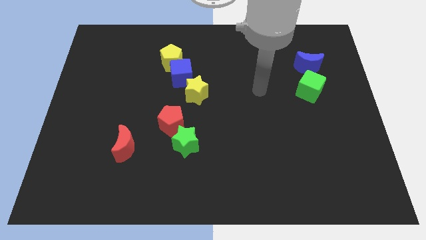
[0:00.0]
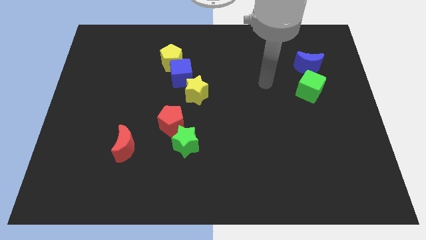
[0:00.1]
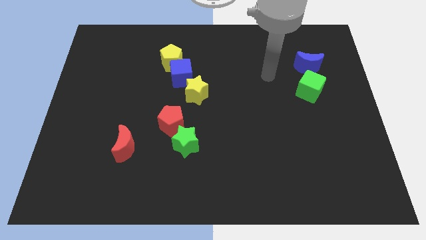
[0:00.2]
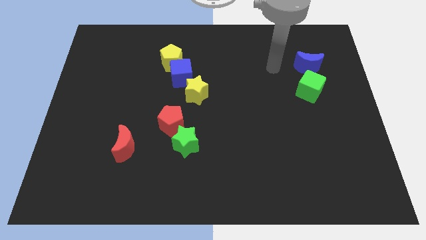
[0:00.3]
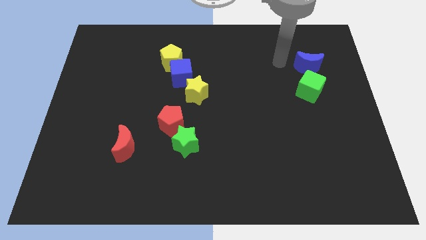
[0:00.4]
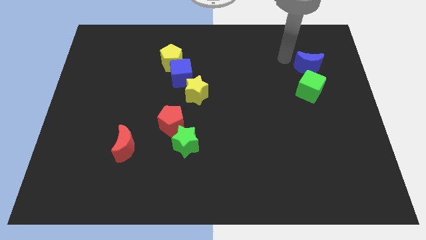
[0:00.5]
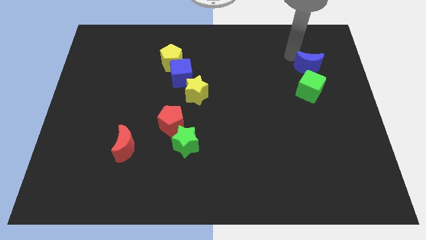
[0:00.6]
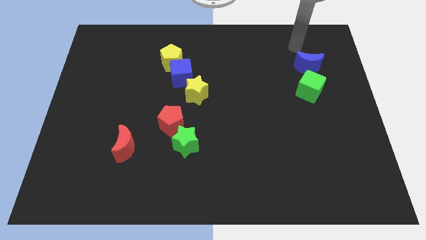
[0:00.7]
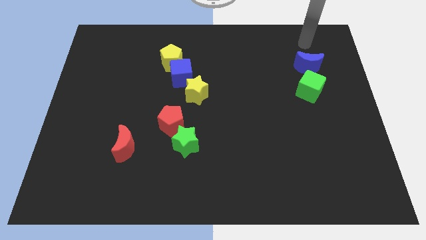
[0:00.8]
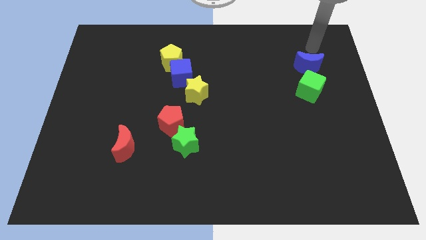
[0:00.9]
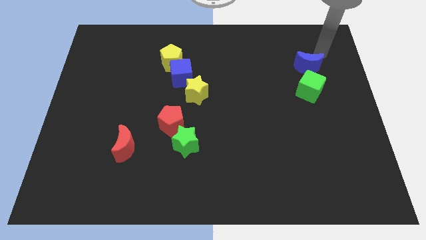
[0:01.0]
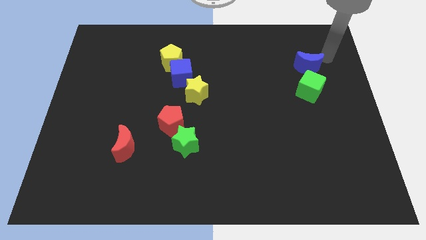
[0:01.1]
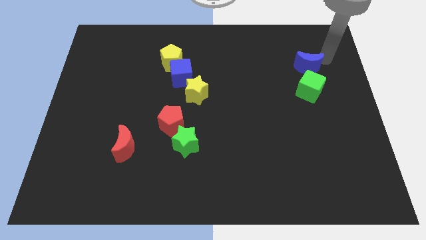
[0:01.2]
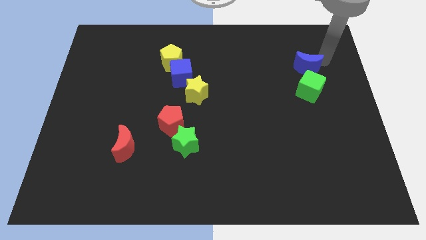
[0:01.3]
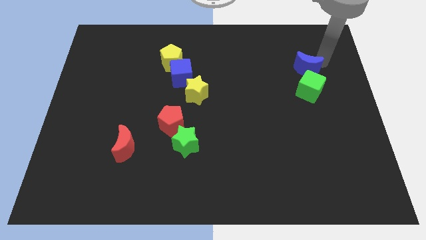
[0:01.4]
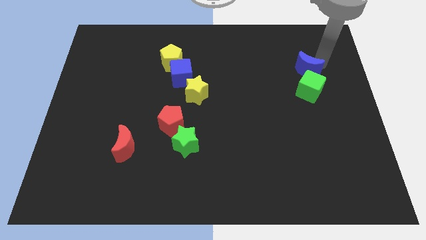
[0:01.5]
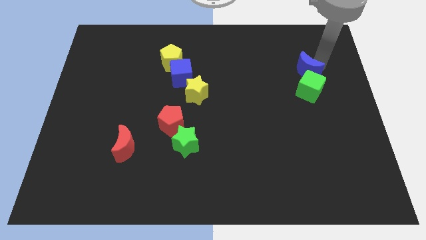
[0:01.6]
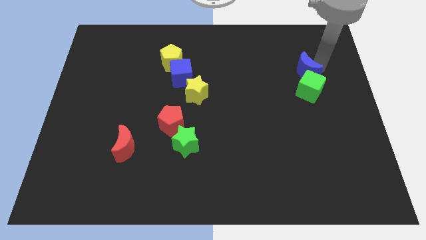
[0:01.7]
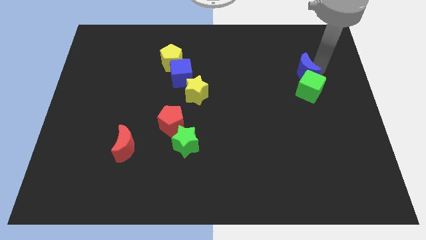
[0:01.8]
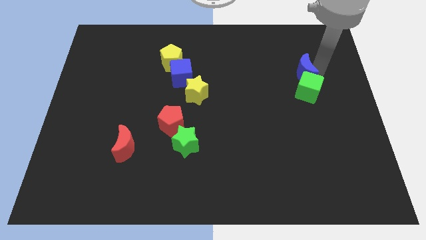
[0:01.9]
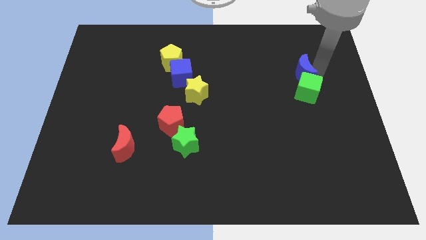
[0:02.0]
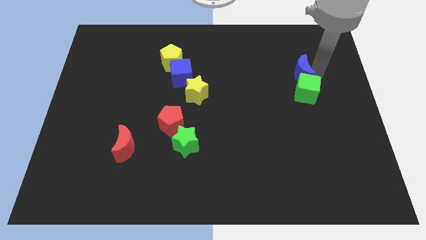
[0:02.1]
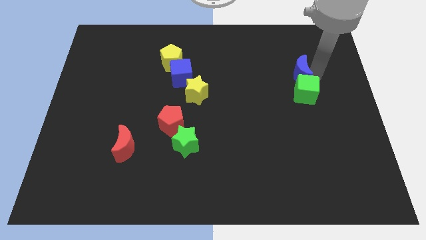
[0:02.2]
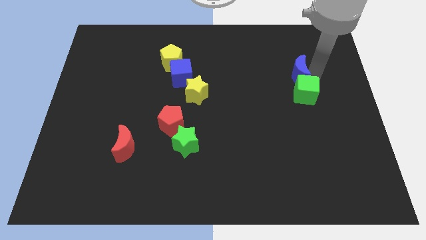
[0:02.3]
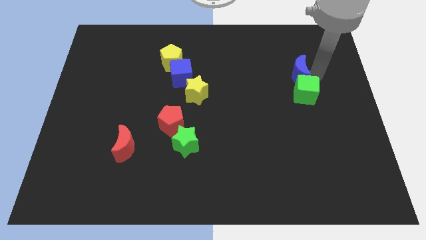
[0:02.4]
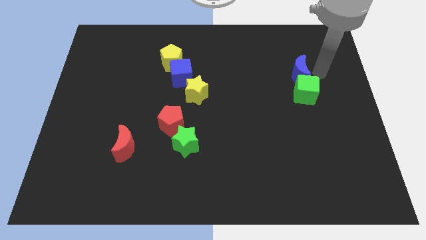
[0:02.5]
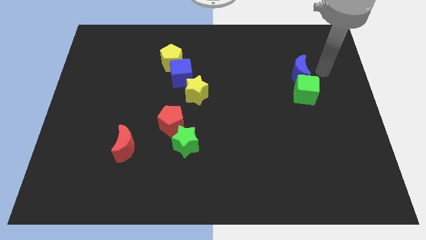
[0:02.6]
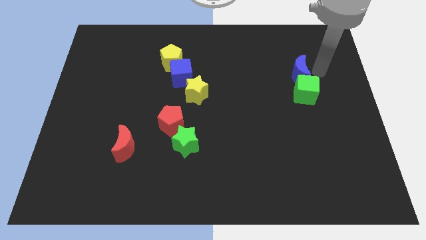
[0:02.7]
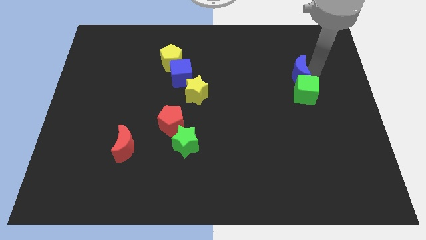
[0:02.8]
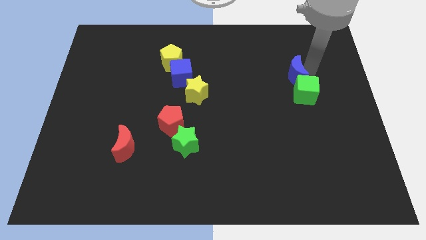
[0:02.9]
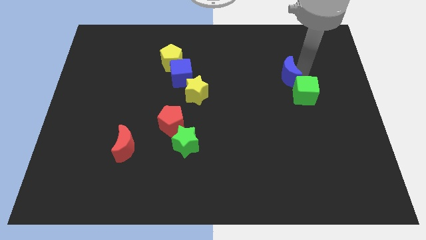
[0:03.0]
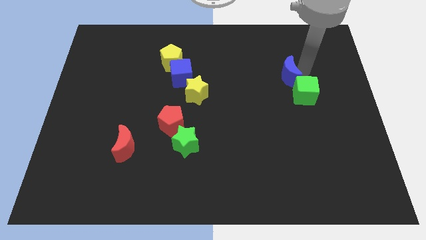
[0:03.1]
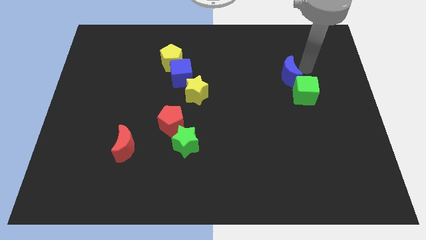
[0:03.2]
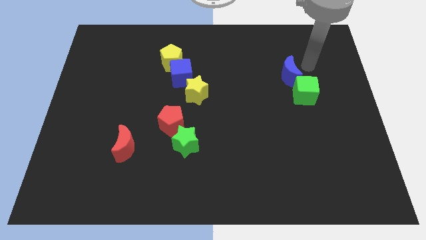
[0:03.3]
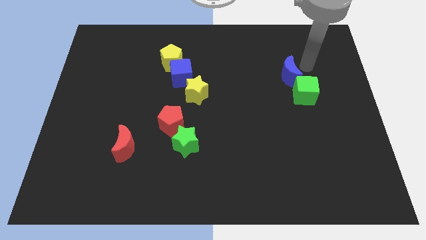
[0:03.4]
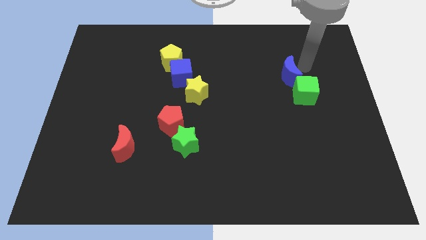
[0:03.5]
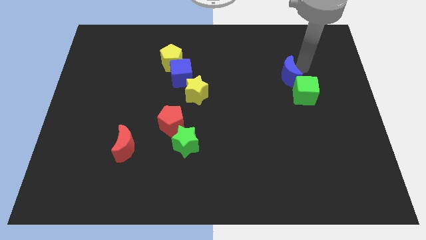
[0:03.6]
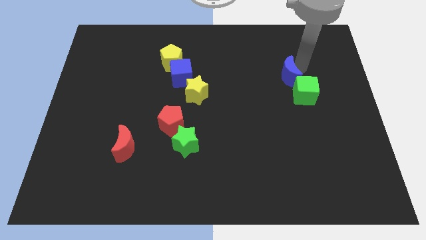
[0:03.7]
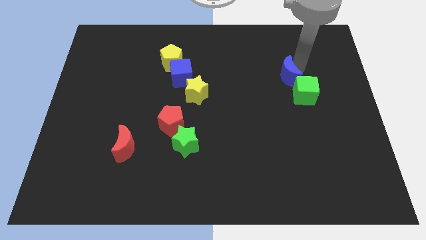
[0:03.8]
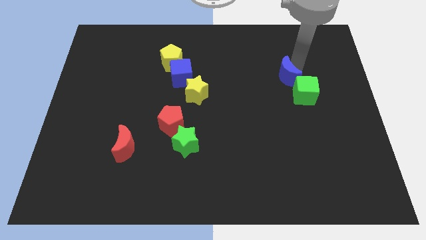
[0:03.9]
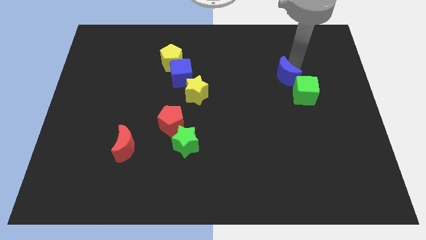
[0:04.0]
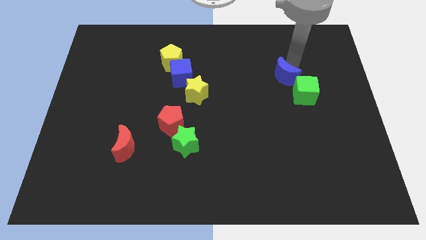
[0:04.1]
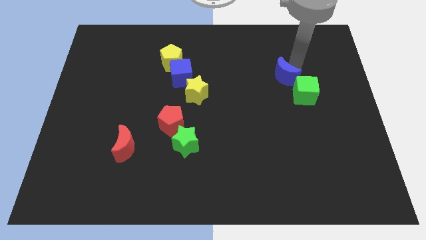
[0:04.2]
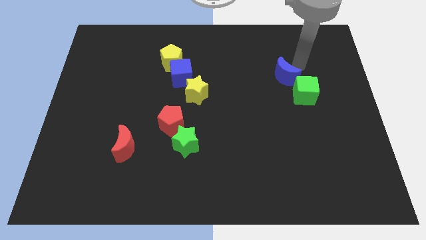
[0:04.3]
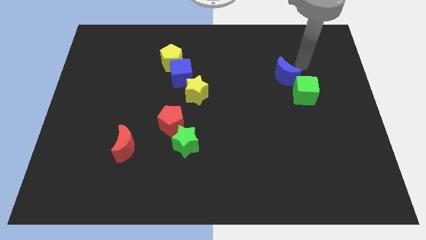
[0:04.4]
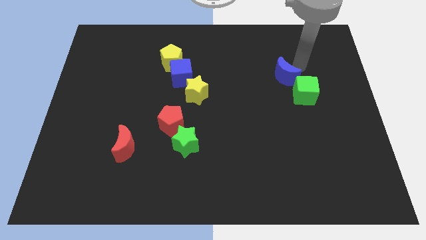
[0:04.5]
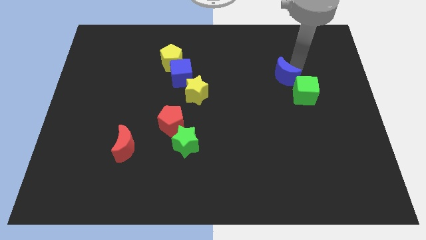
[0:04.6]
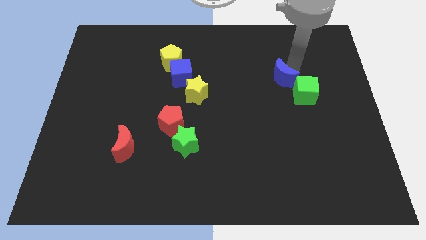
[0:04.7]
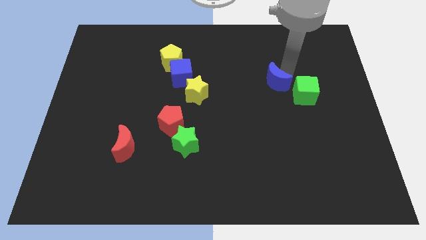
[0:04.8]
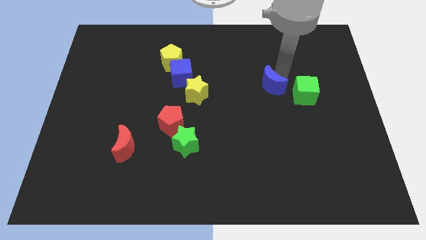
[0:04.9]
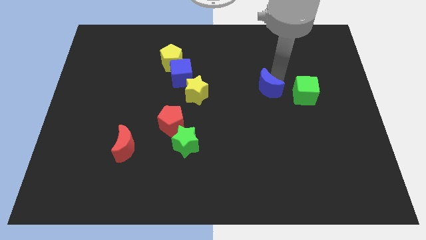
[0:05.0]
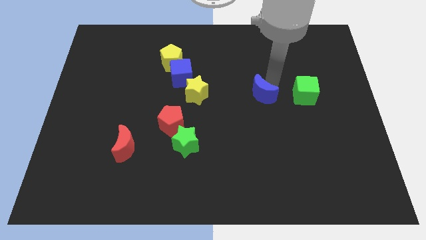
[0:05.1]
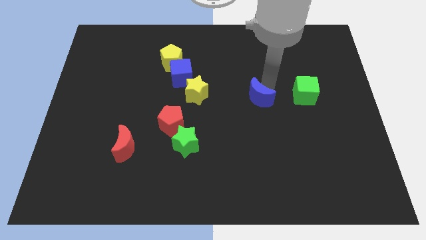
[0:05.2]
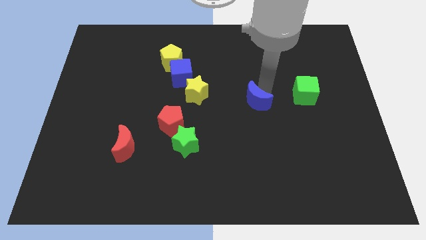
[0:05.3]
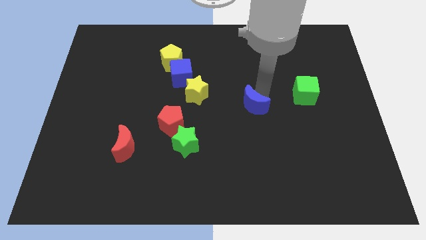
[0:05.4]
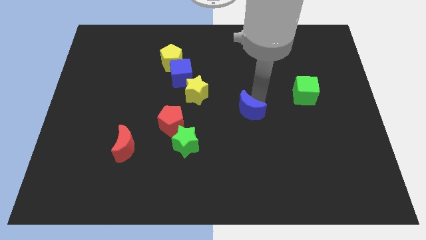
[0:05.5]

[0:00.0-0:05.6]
push the blue moon downwards and to the left

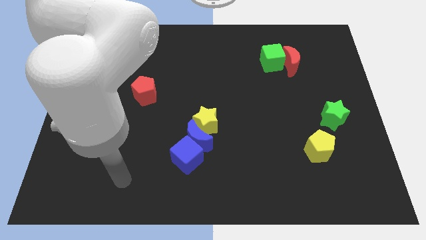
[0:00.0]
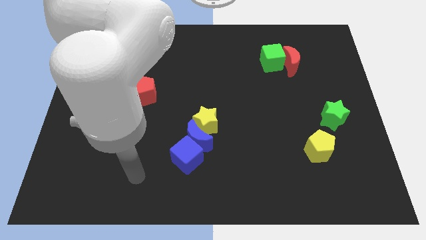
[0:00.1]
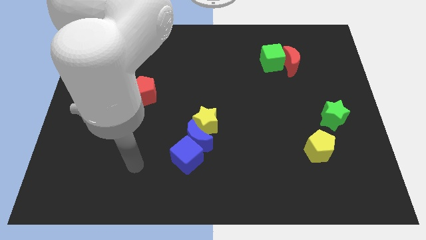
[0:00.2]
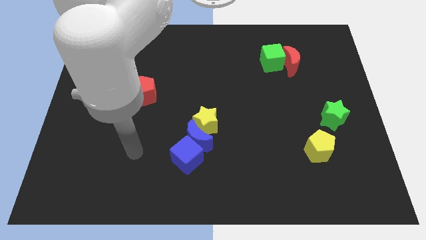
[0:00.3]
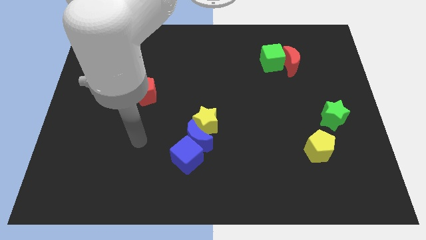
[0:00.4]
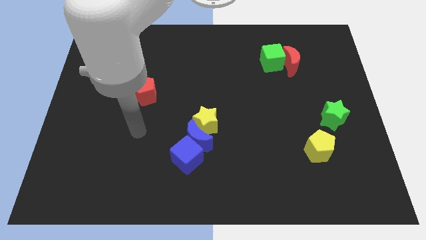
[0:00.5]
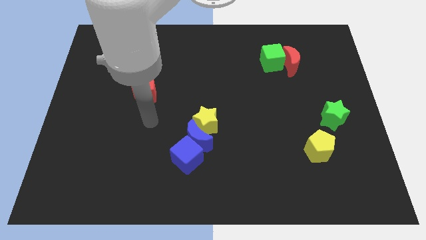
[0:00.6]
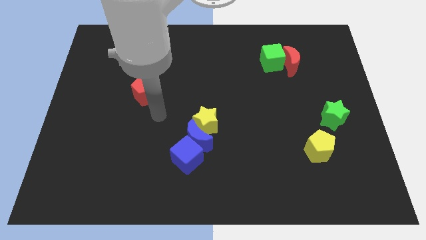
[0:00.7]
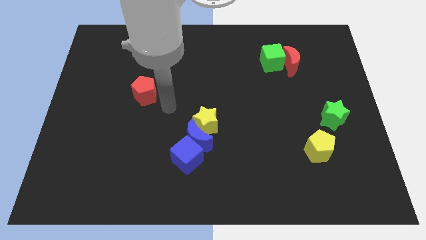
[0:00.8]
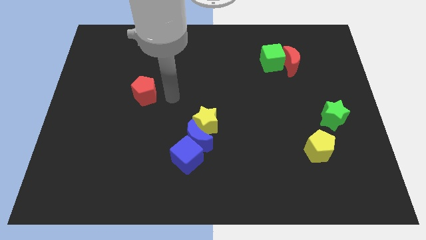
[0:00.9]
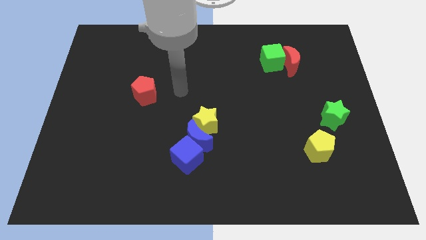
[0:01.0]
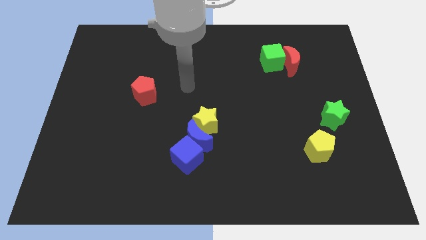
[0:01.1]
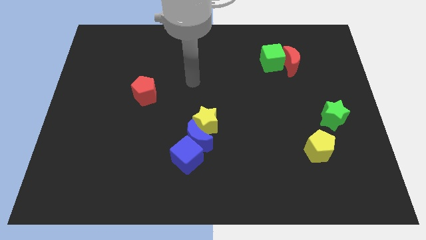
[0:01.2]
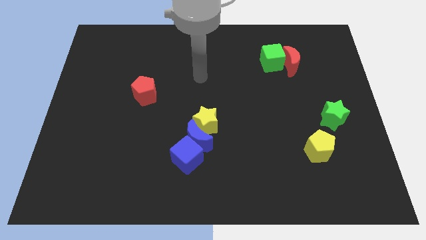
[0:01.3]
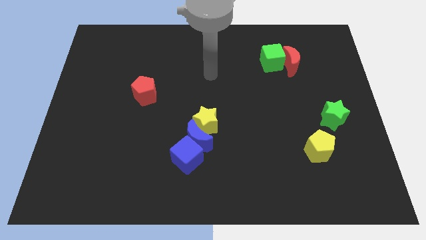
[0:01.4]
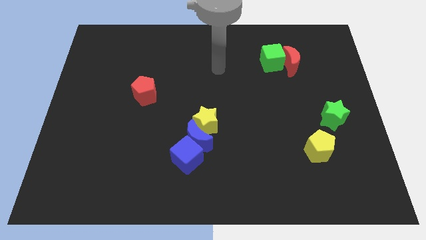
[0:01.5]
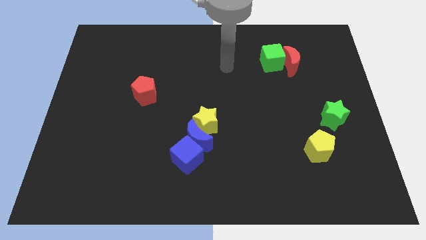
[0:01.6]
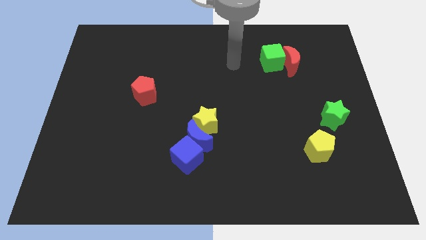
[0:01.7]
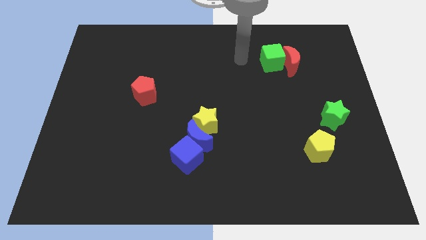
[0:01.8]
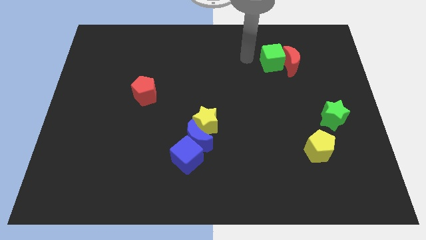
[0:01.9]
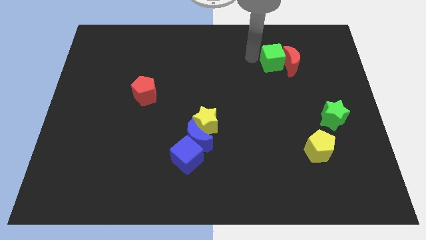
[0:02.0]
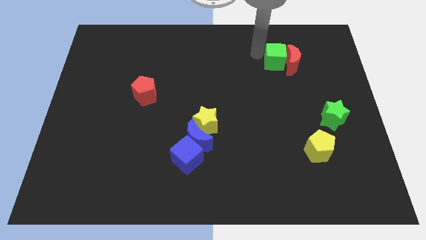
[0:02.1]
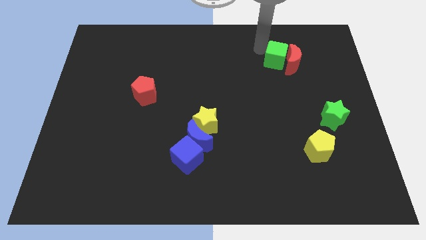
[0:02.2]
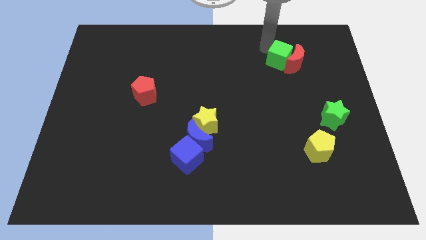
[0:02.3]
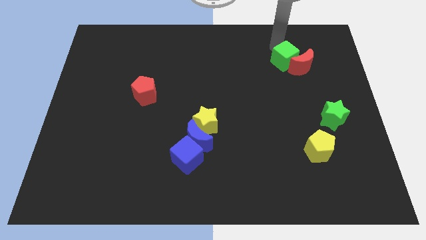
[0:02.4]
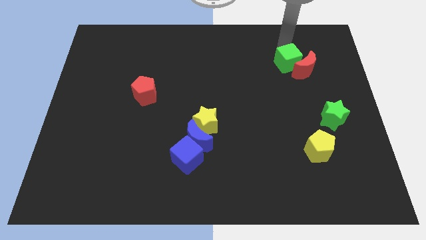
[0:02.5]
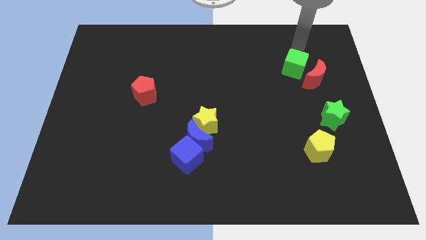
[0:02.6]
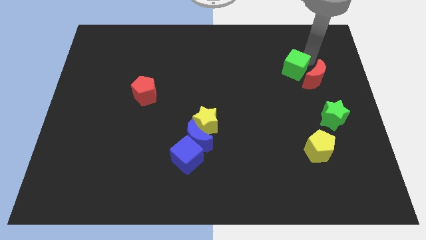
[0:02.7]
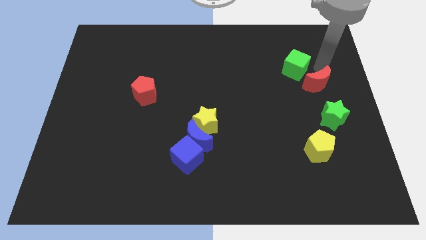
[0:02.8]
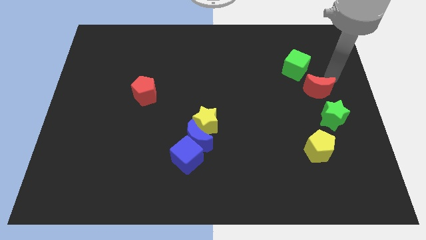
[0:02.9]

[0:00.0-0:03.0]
slightly push the red moon down
